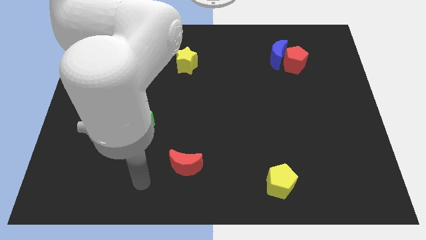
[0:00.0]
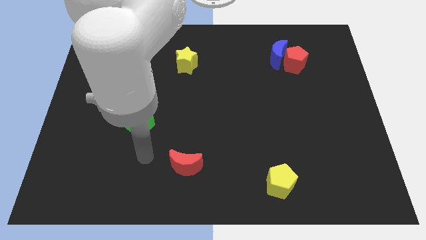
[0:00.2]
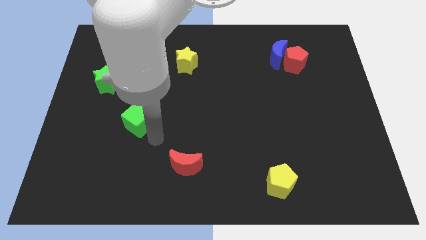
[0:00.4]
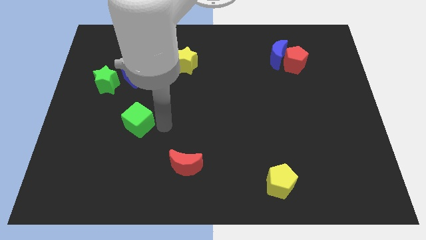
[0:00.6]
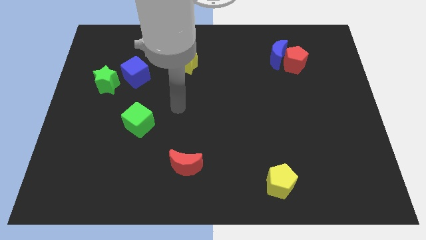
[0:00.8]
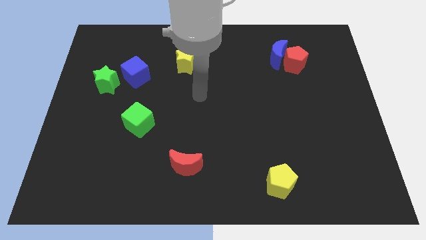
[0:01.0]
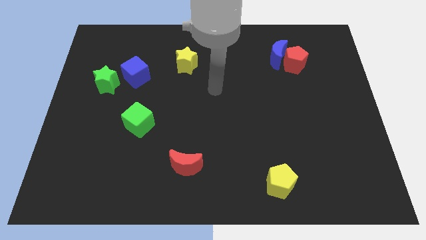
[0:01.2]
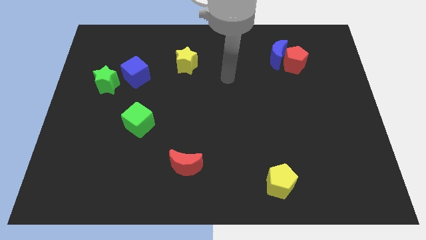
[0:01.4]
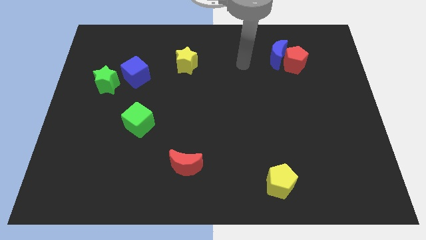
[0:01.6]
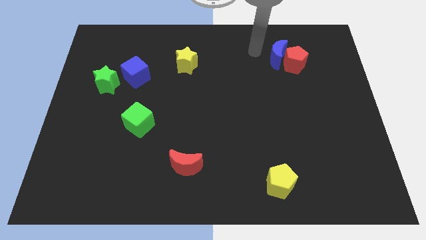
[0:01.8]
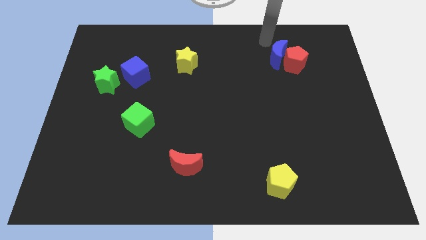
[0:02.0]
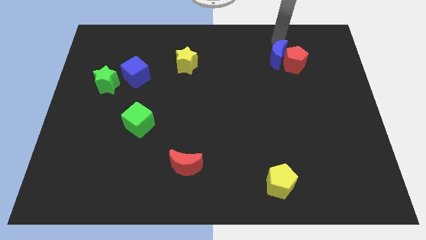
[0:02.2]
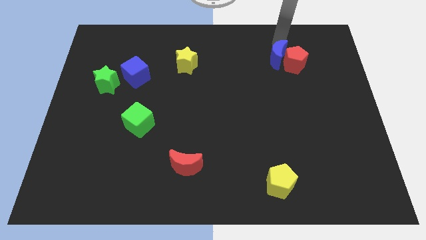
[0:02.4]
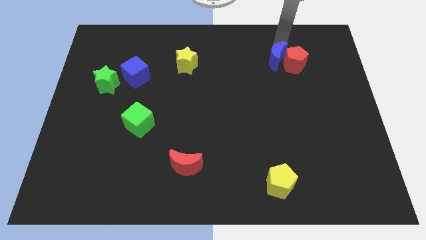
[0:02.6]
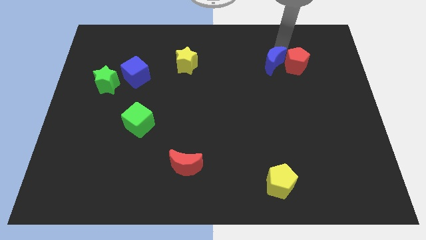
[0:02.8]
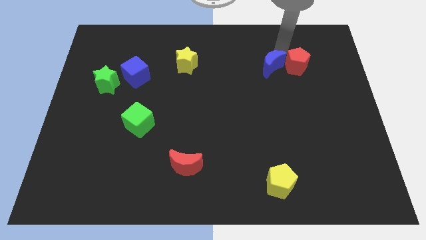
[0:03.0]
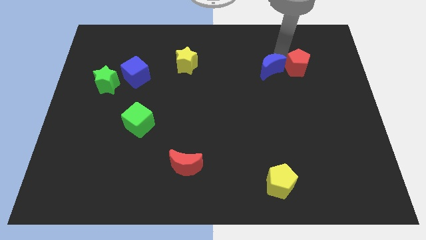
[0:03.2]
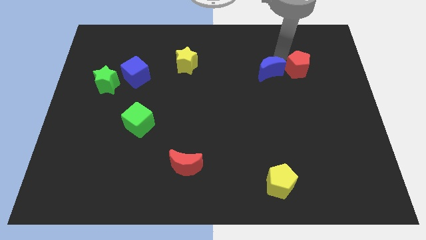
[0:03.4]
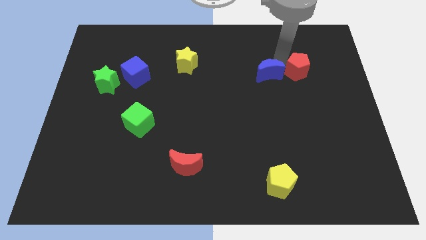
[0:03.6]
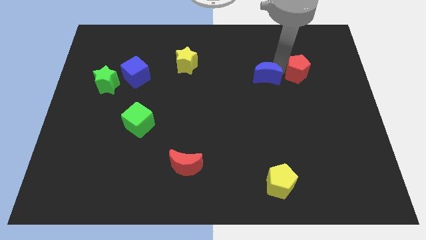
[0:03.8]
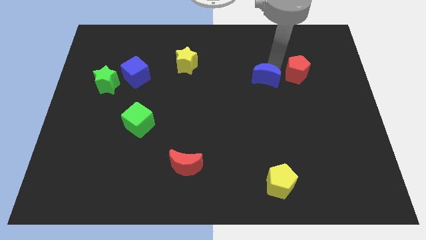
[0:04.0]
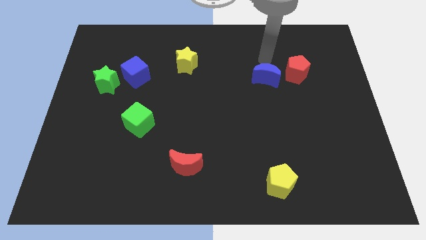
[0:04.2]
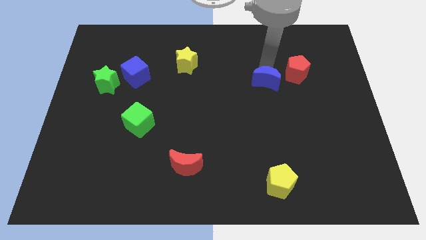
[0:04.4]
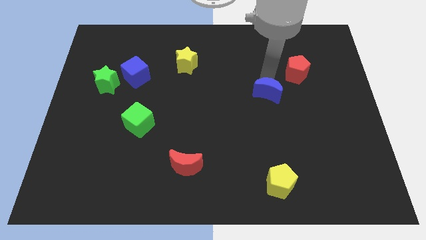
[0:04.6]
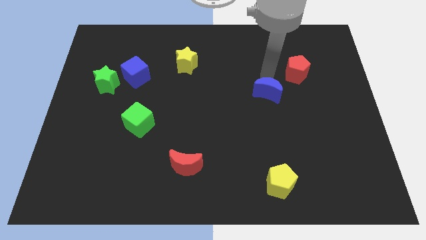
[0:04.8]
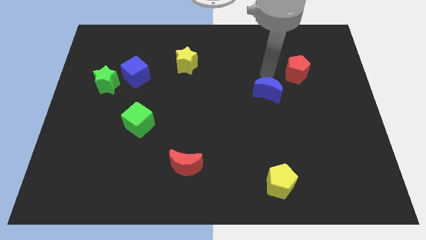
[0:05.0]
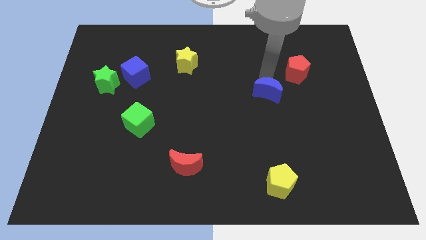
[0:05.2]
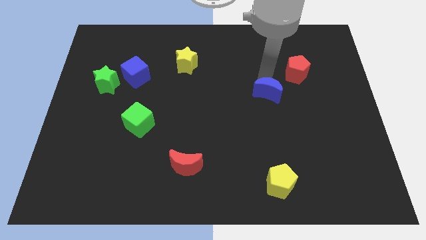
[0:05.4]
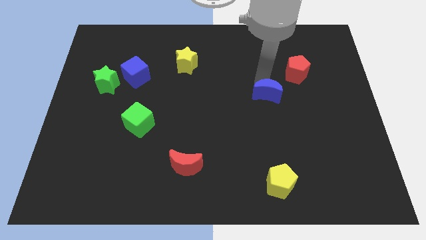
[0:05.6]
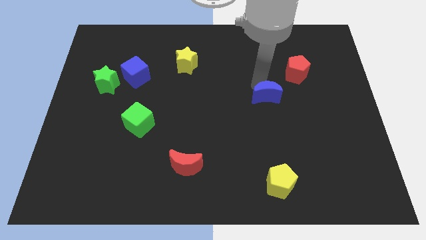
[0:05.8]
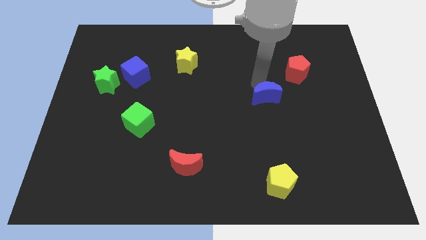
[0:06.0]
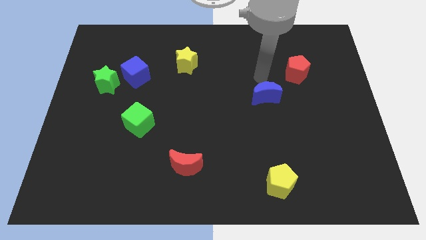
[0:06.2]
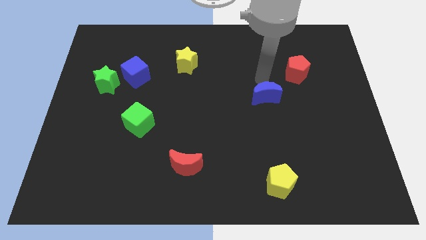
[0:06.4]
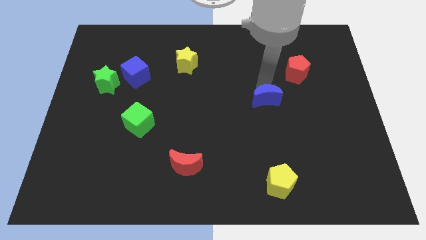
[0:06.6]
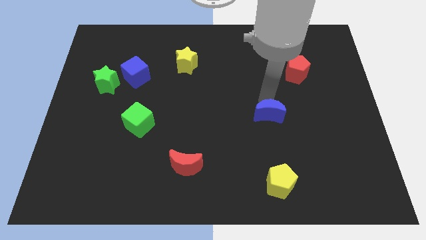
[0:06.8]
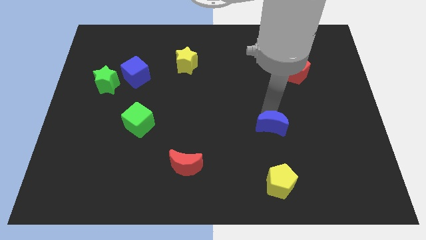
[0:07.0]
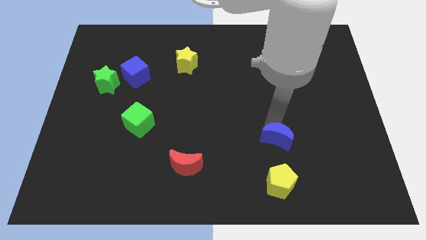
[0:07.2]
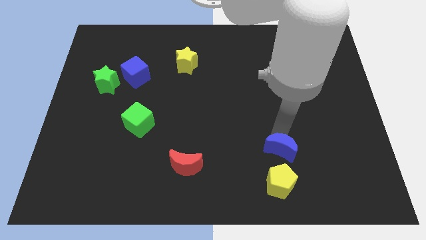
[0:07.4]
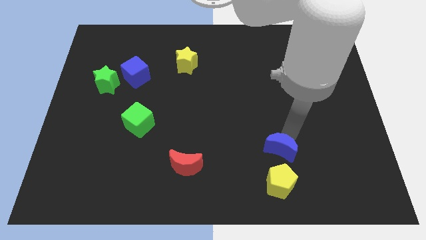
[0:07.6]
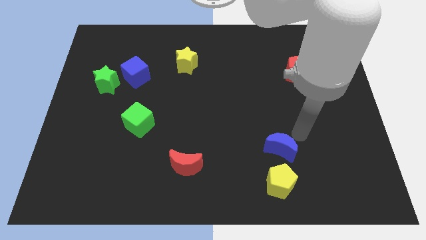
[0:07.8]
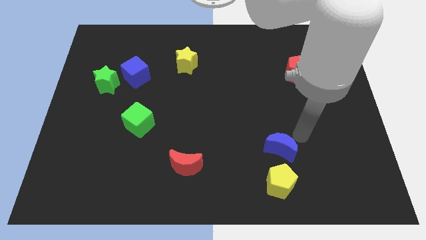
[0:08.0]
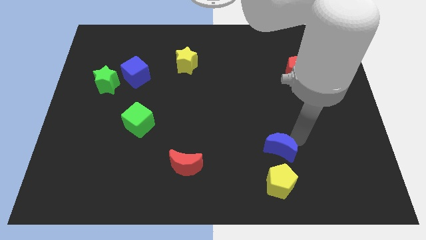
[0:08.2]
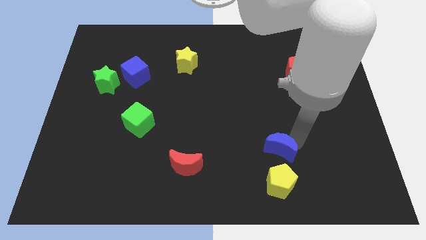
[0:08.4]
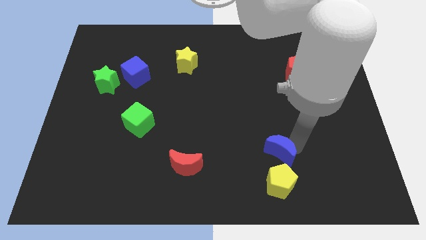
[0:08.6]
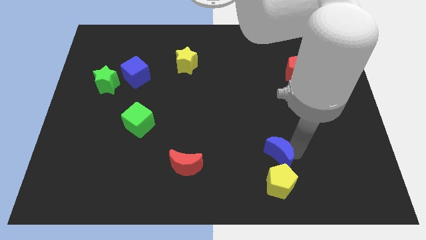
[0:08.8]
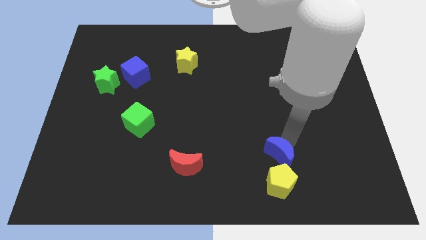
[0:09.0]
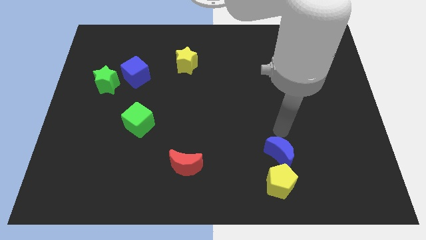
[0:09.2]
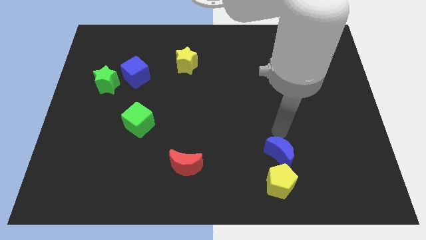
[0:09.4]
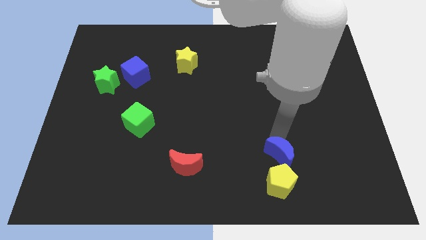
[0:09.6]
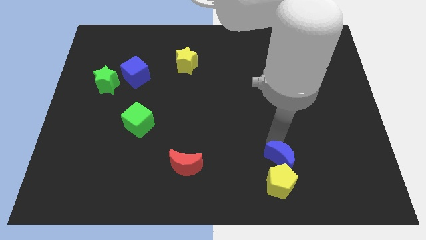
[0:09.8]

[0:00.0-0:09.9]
push the blue moon to the yellow pentagon

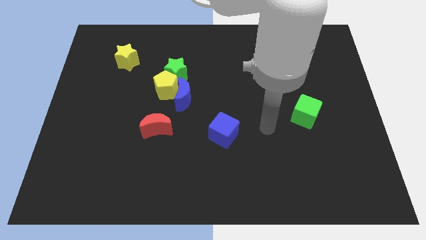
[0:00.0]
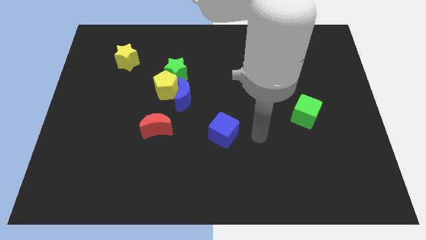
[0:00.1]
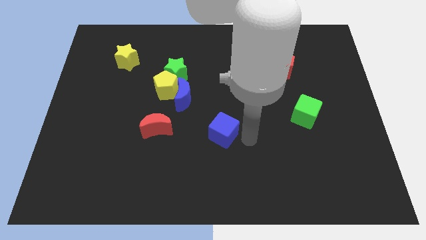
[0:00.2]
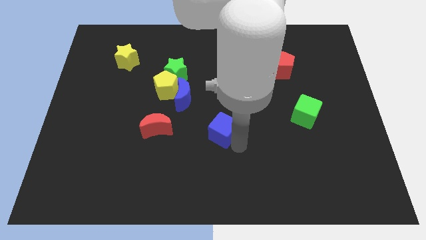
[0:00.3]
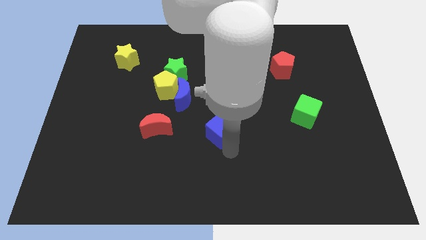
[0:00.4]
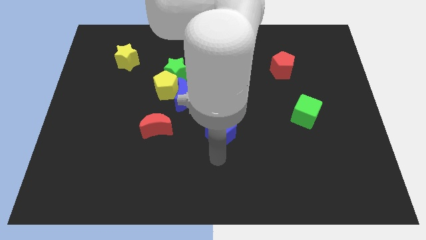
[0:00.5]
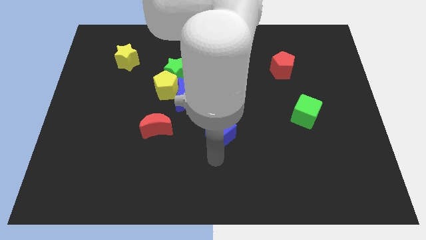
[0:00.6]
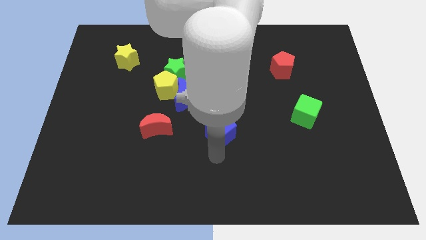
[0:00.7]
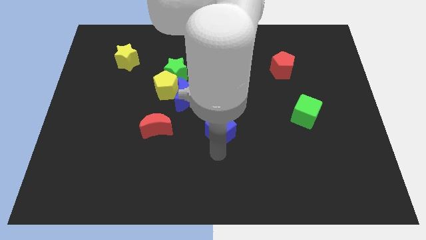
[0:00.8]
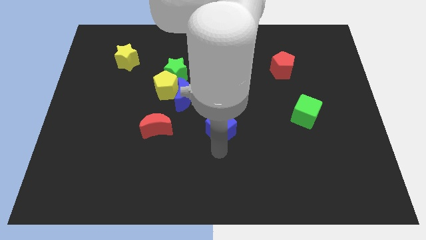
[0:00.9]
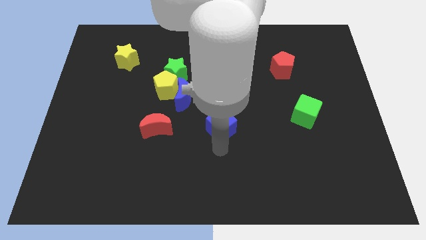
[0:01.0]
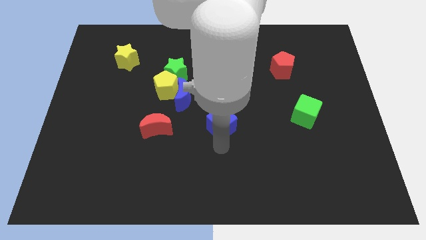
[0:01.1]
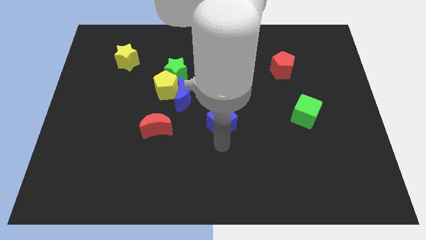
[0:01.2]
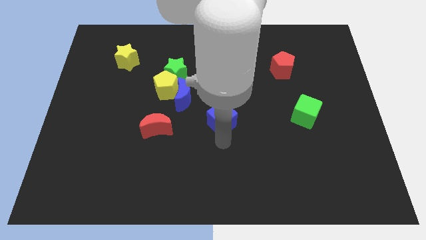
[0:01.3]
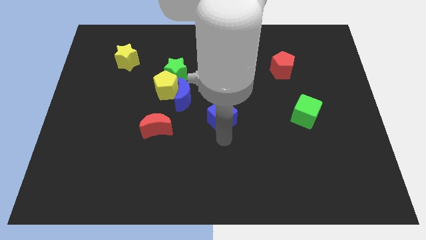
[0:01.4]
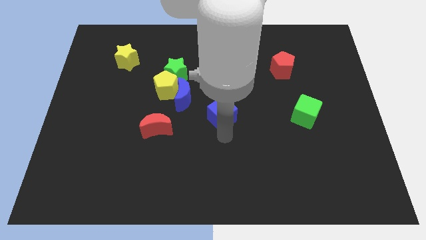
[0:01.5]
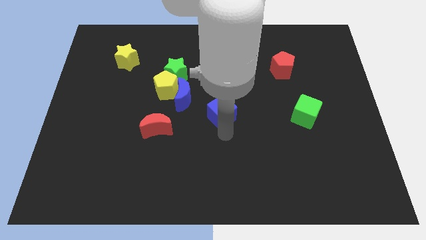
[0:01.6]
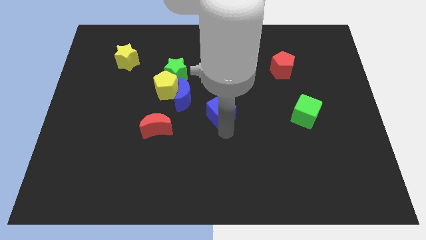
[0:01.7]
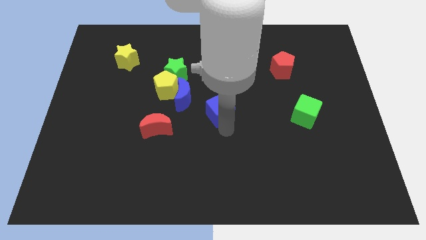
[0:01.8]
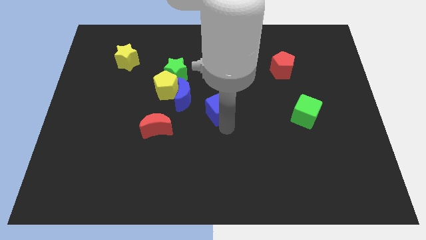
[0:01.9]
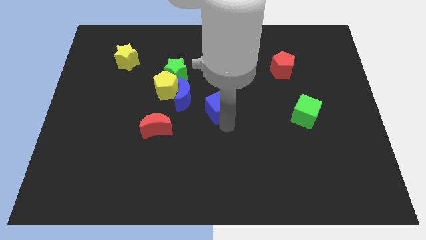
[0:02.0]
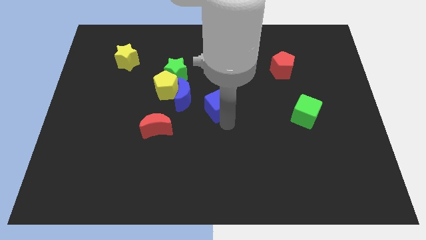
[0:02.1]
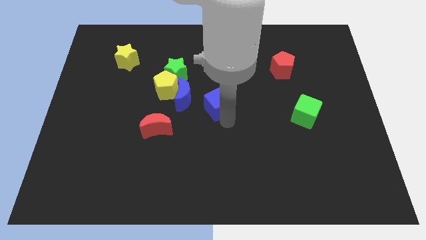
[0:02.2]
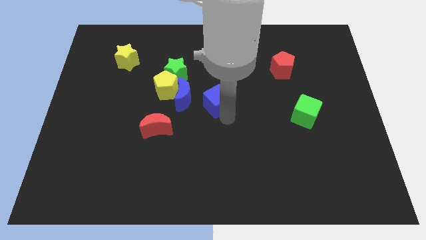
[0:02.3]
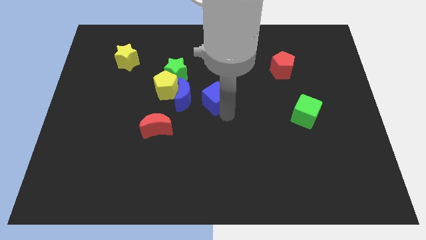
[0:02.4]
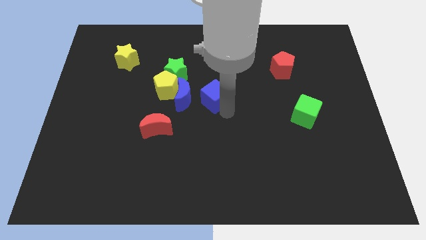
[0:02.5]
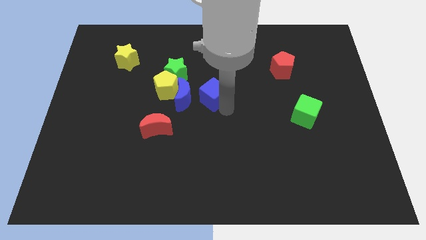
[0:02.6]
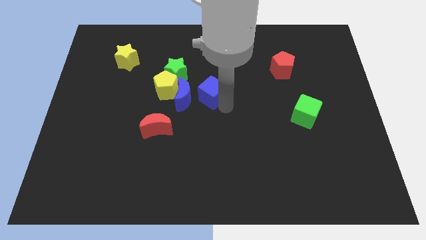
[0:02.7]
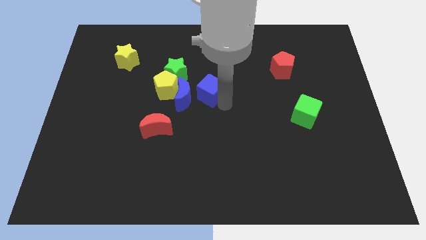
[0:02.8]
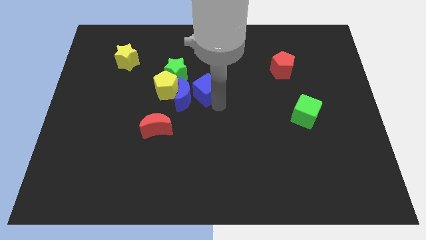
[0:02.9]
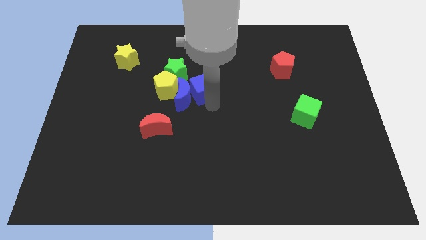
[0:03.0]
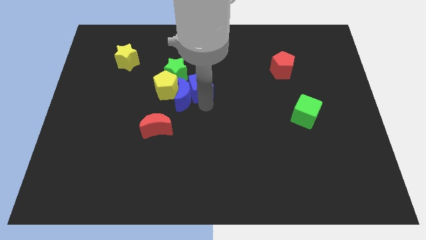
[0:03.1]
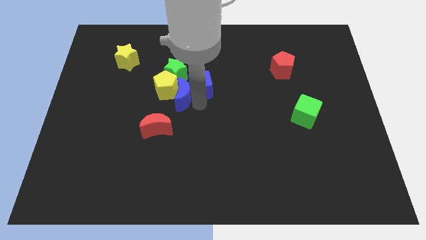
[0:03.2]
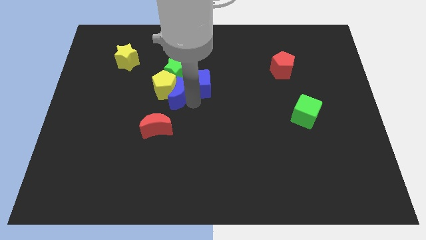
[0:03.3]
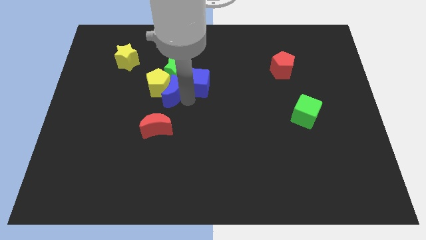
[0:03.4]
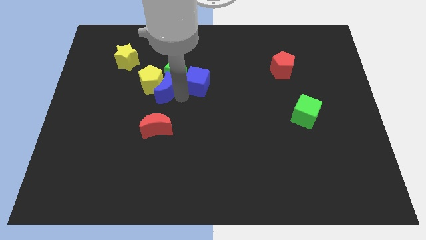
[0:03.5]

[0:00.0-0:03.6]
slide the blue cube next to the green star
